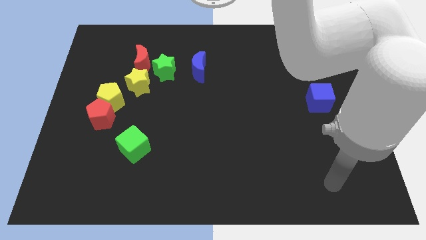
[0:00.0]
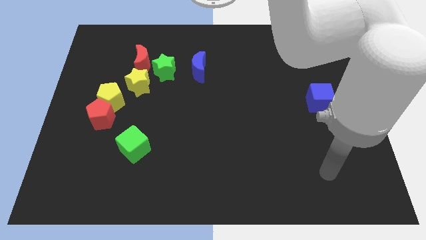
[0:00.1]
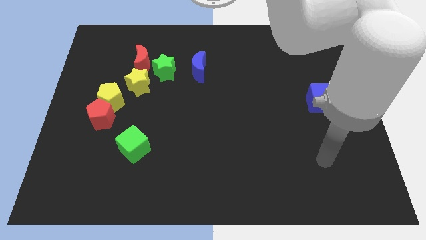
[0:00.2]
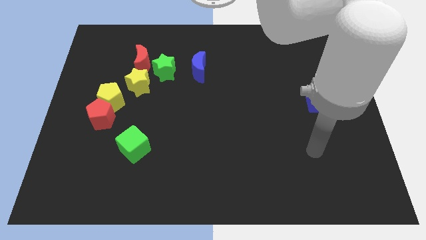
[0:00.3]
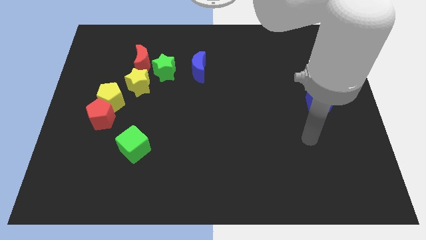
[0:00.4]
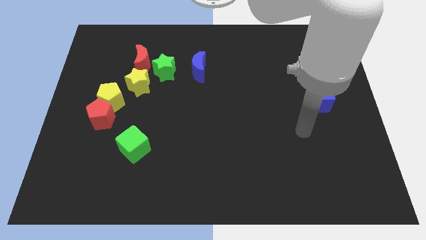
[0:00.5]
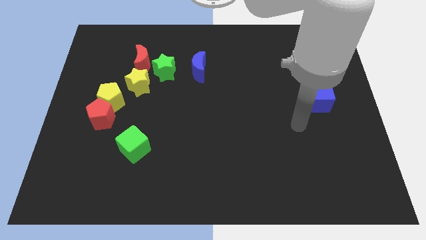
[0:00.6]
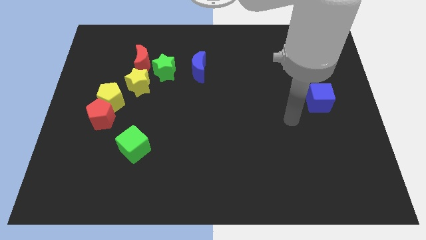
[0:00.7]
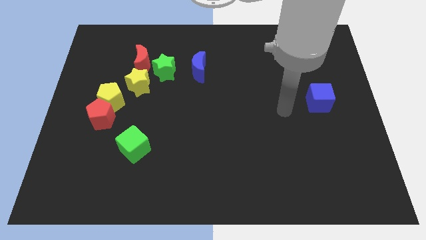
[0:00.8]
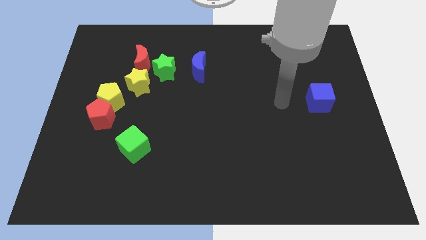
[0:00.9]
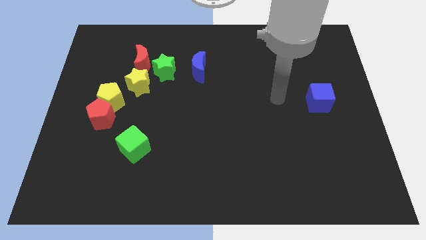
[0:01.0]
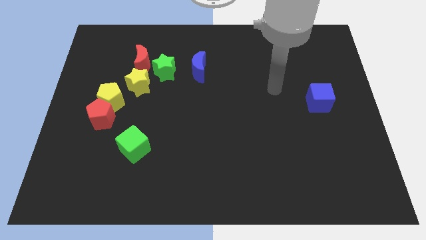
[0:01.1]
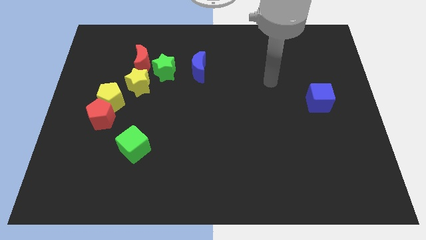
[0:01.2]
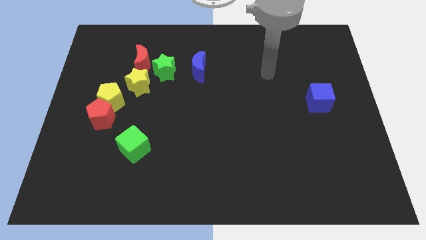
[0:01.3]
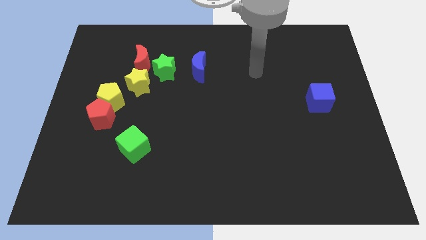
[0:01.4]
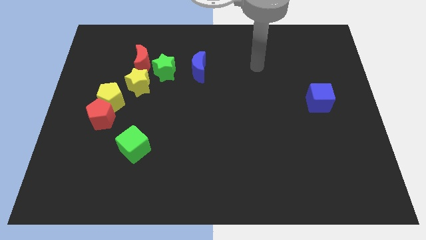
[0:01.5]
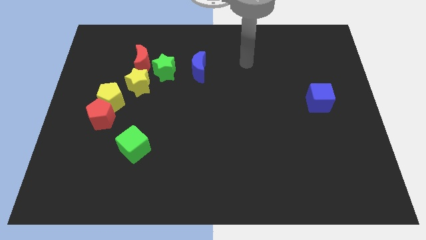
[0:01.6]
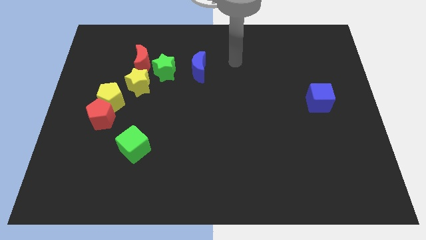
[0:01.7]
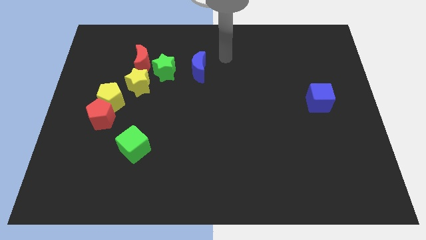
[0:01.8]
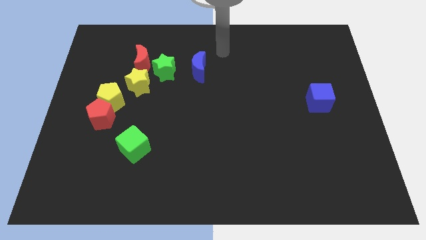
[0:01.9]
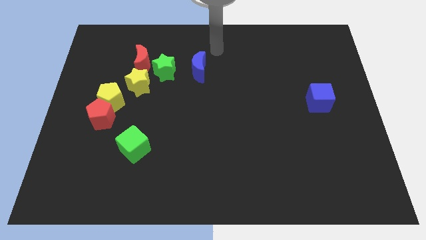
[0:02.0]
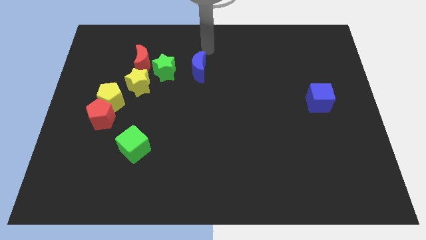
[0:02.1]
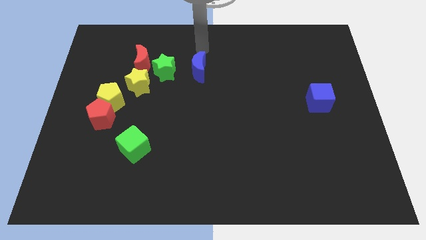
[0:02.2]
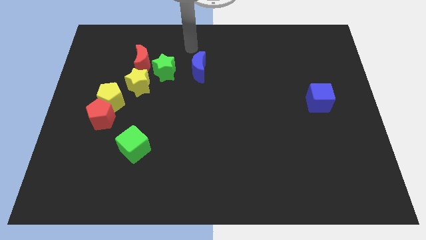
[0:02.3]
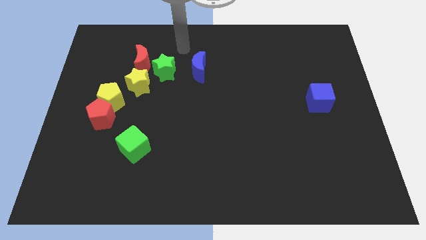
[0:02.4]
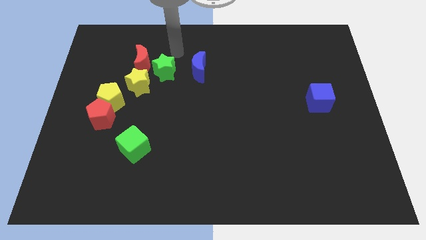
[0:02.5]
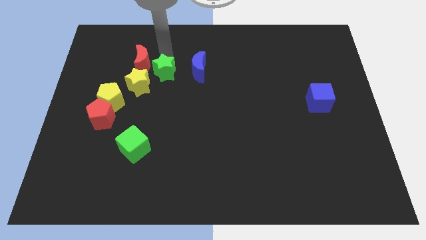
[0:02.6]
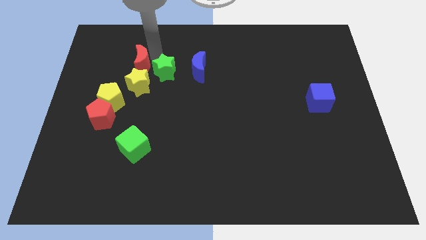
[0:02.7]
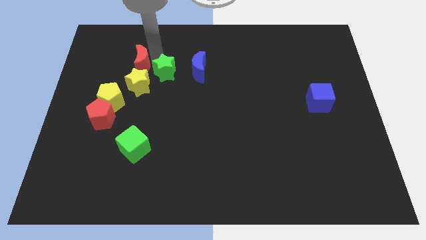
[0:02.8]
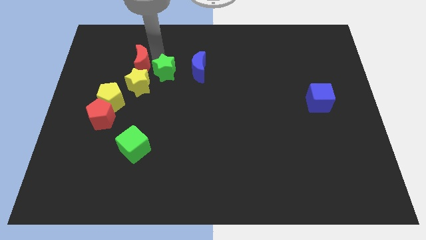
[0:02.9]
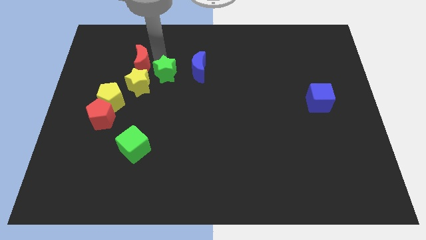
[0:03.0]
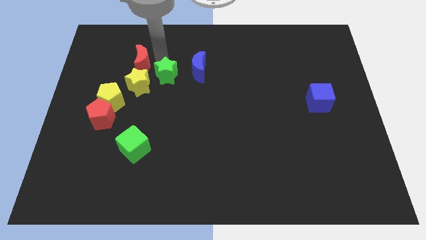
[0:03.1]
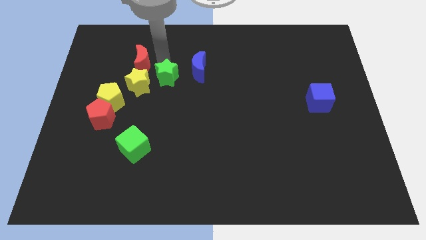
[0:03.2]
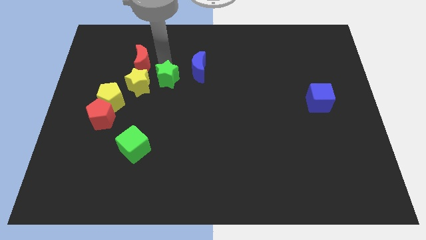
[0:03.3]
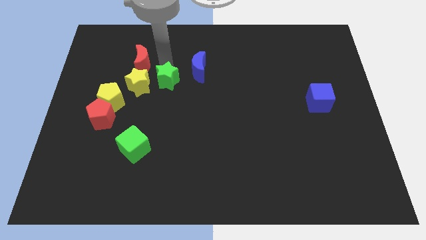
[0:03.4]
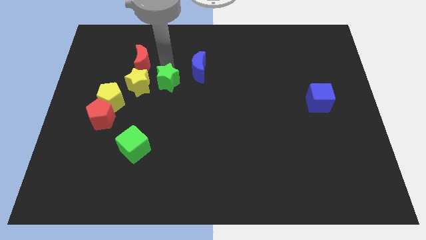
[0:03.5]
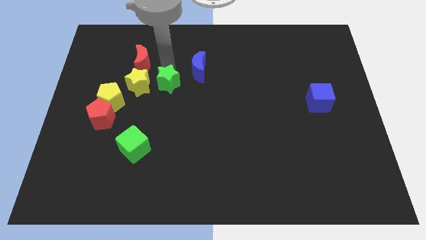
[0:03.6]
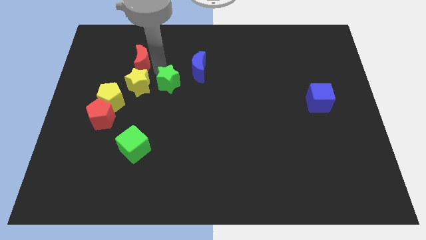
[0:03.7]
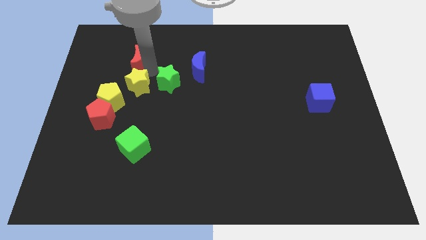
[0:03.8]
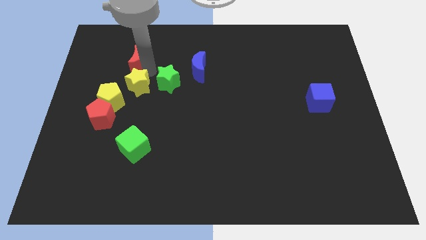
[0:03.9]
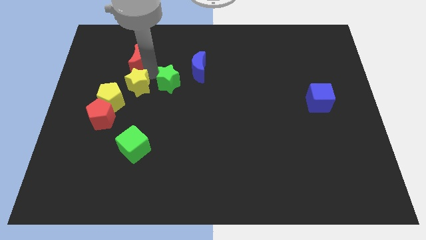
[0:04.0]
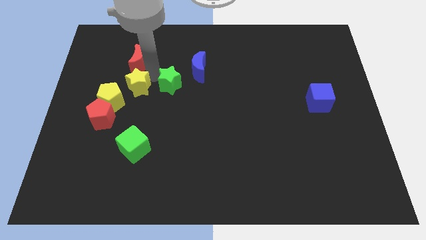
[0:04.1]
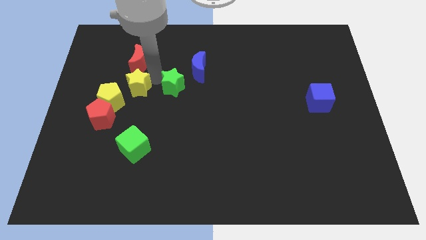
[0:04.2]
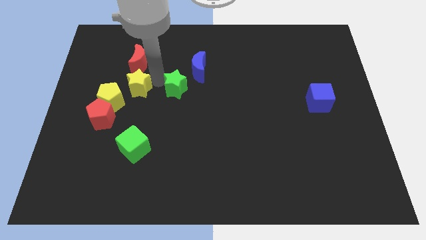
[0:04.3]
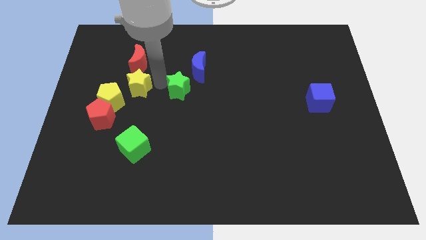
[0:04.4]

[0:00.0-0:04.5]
move the green star a little bit down and right

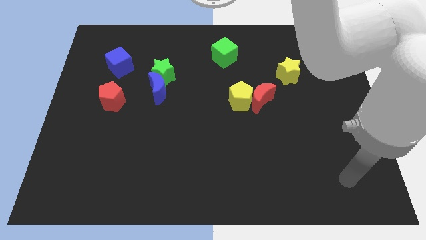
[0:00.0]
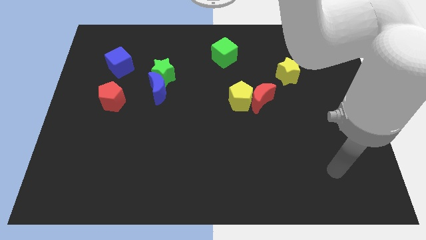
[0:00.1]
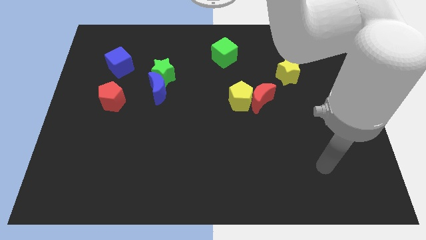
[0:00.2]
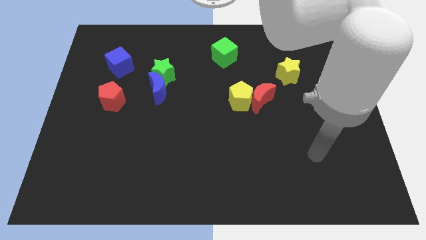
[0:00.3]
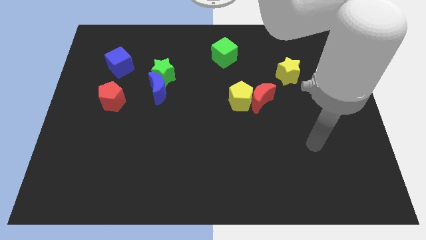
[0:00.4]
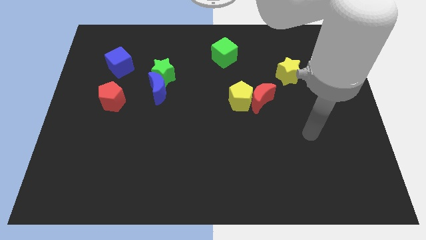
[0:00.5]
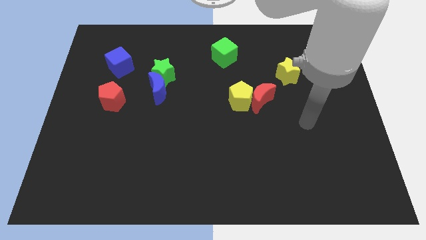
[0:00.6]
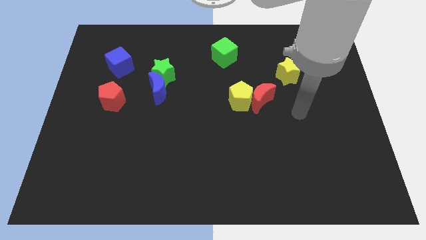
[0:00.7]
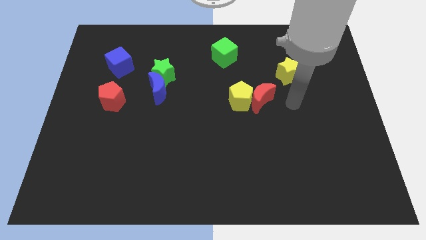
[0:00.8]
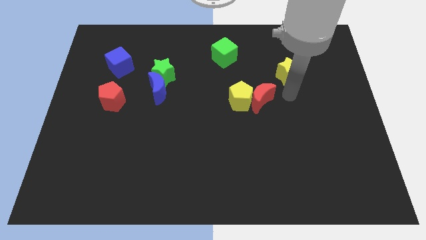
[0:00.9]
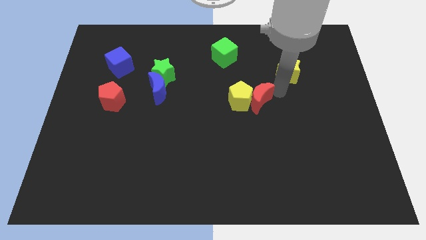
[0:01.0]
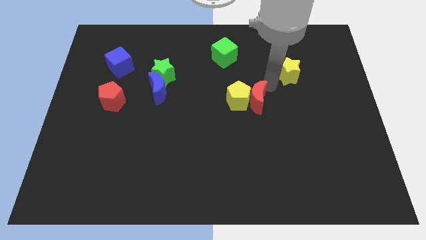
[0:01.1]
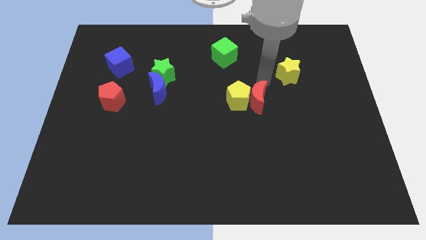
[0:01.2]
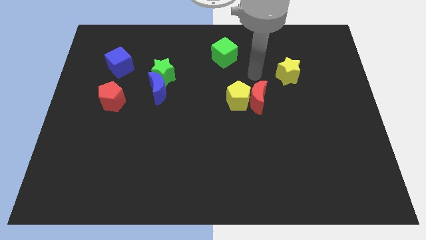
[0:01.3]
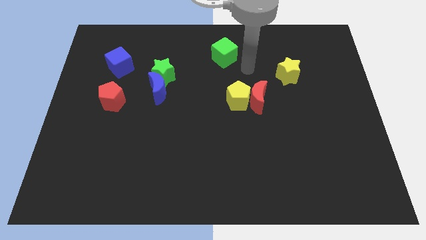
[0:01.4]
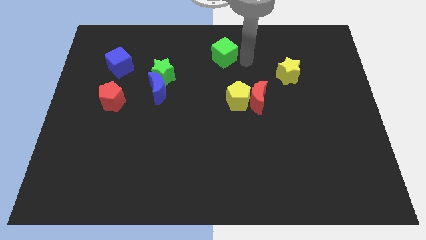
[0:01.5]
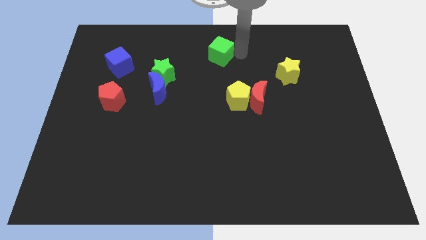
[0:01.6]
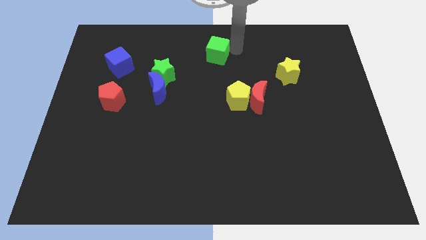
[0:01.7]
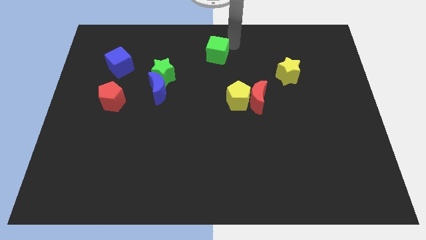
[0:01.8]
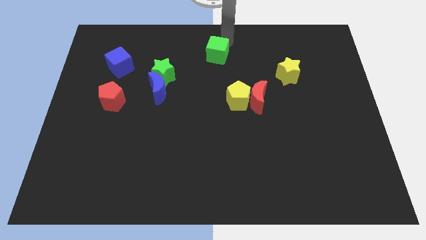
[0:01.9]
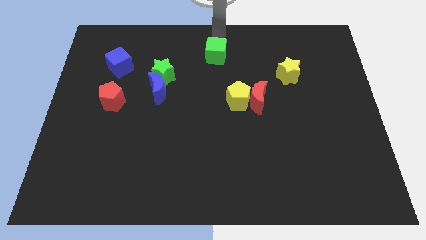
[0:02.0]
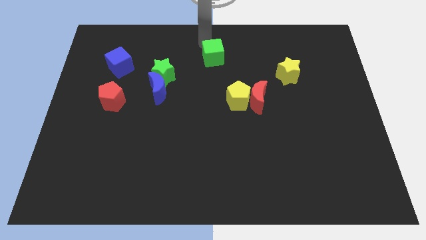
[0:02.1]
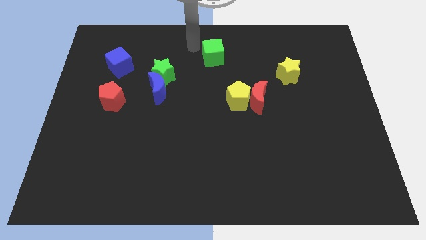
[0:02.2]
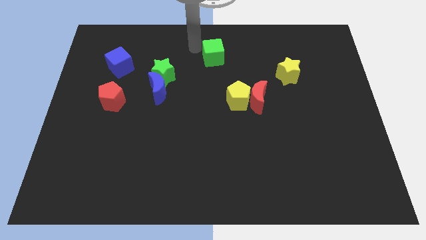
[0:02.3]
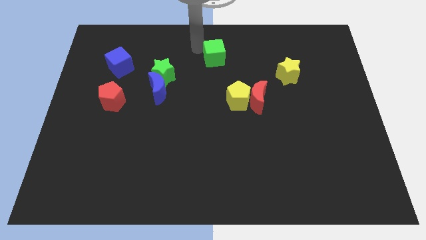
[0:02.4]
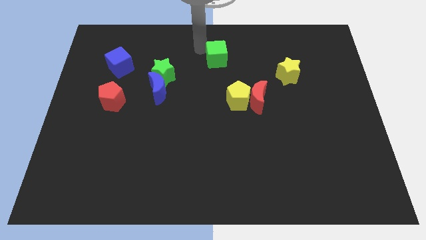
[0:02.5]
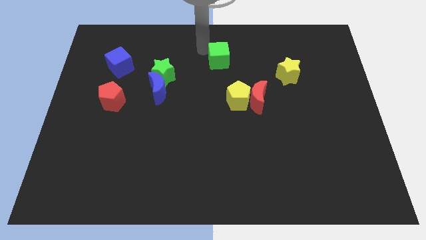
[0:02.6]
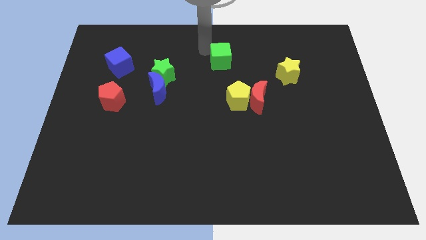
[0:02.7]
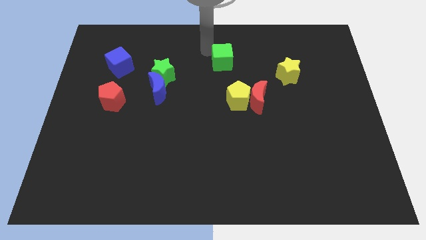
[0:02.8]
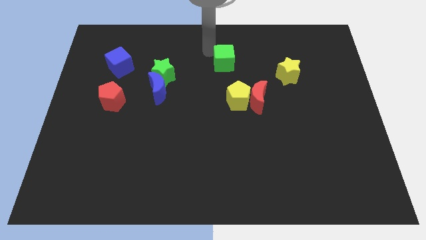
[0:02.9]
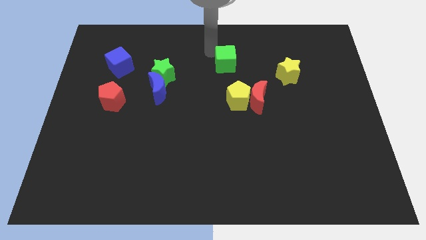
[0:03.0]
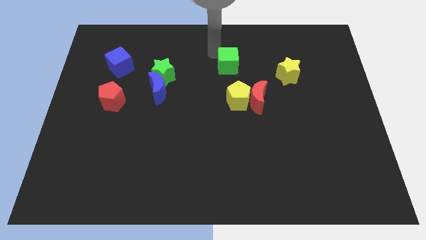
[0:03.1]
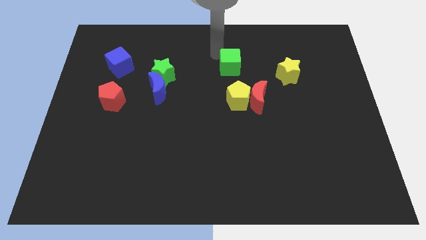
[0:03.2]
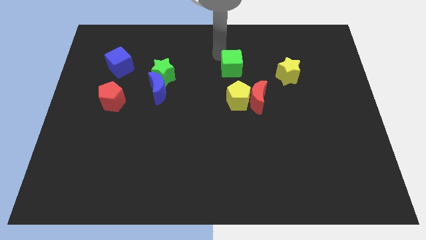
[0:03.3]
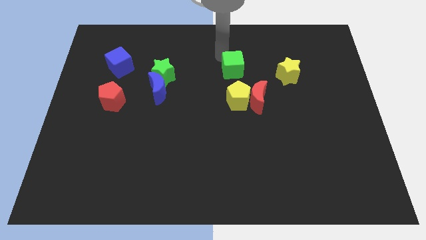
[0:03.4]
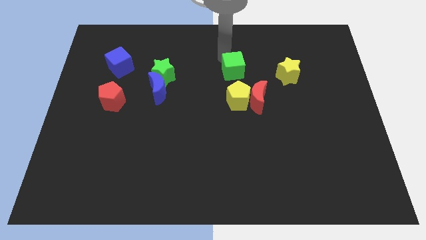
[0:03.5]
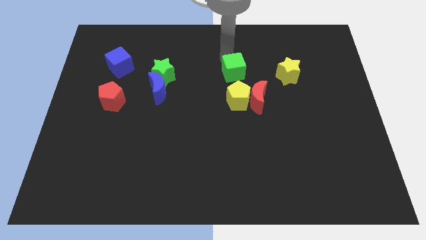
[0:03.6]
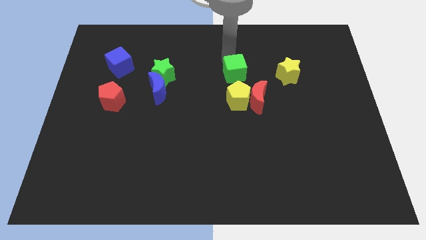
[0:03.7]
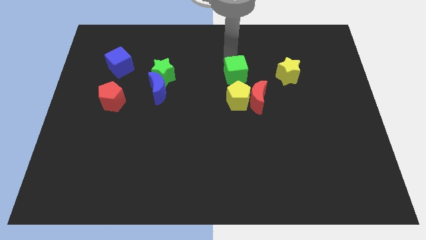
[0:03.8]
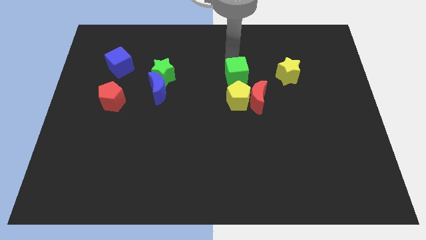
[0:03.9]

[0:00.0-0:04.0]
slide the green cube slightly diagonally down and to the right
